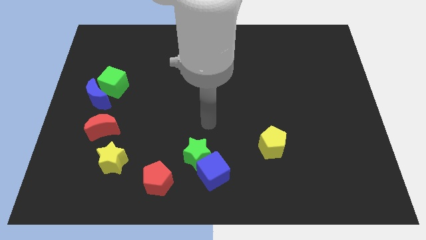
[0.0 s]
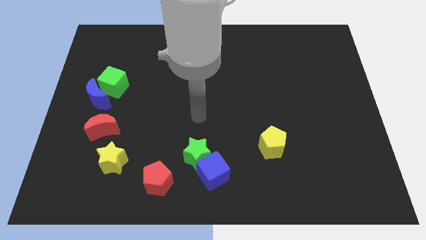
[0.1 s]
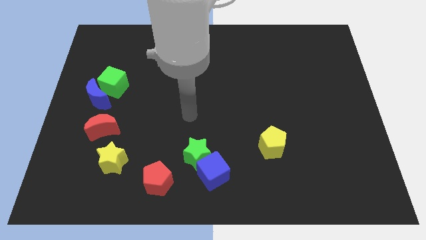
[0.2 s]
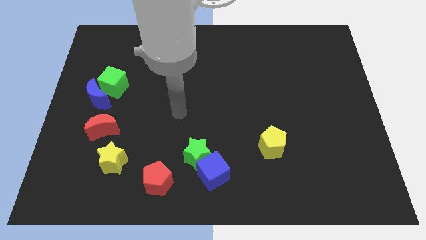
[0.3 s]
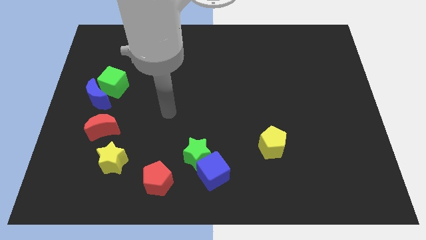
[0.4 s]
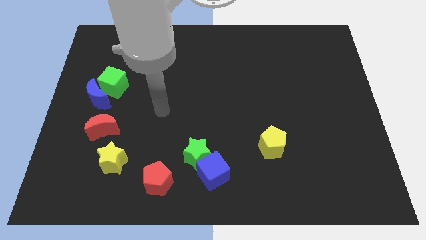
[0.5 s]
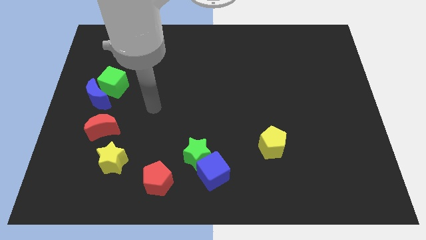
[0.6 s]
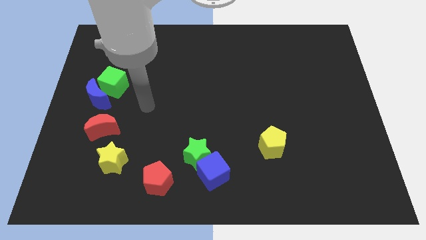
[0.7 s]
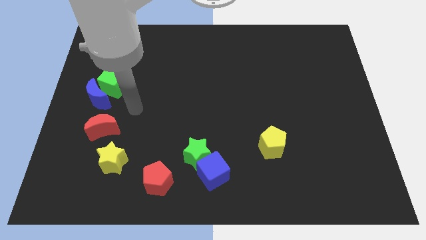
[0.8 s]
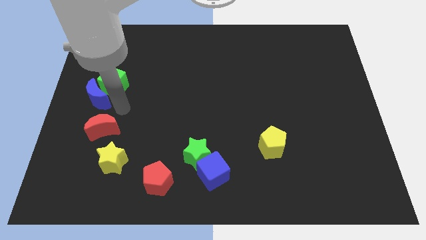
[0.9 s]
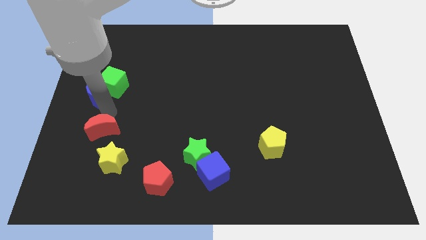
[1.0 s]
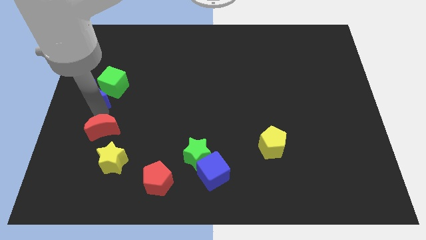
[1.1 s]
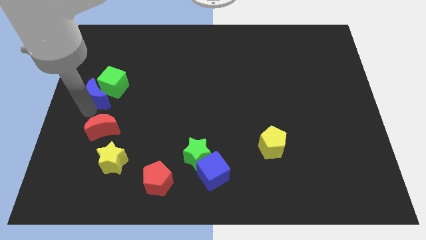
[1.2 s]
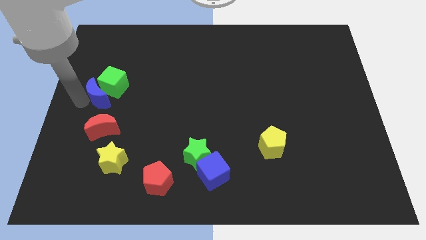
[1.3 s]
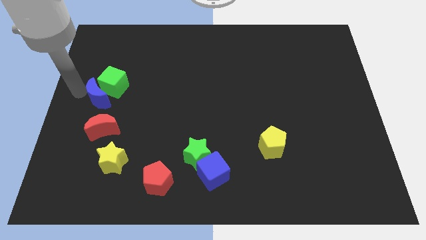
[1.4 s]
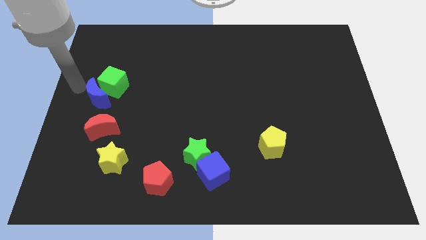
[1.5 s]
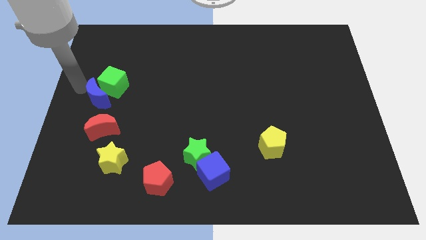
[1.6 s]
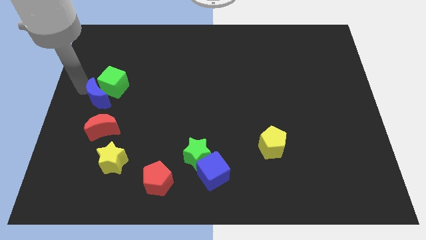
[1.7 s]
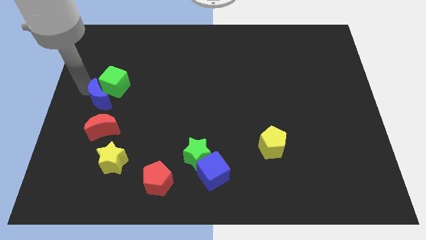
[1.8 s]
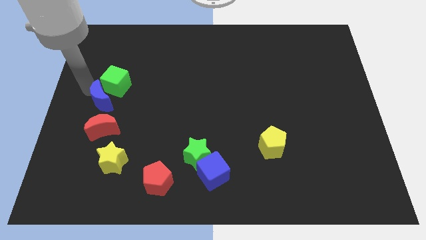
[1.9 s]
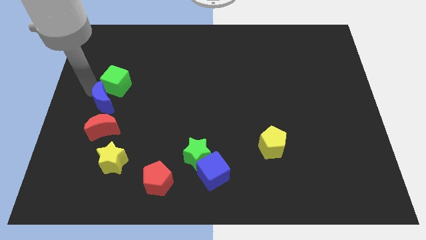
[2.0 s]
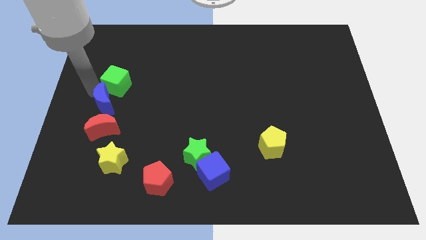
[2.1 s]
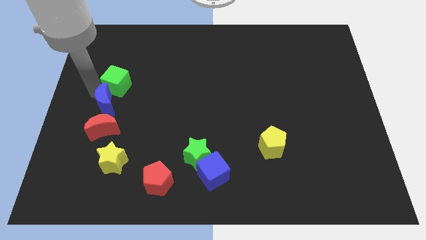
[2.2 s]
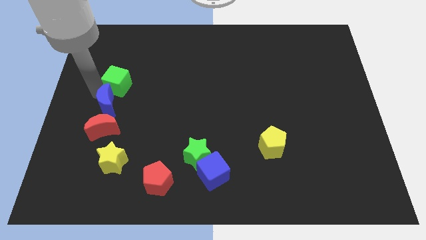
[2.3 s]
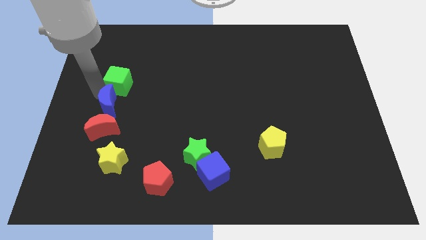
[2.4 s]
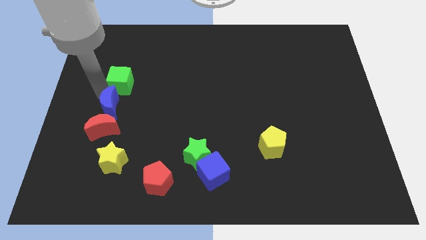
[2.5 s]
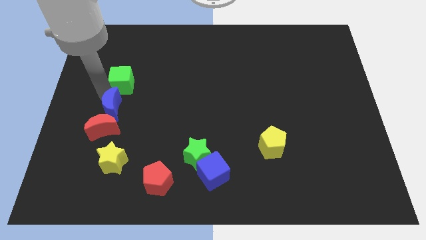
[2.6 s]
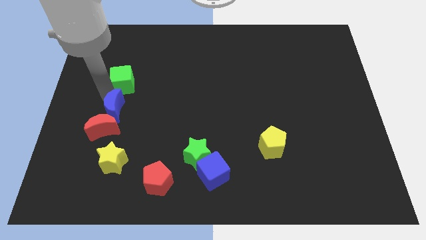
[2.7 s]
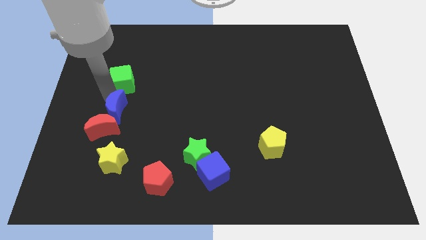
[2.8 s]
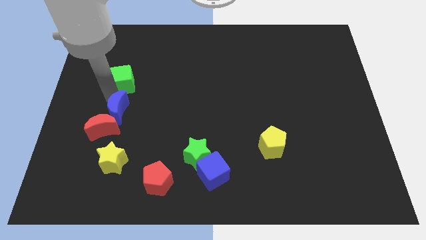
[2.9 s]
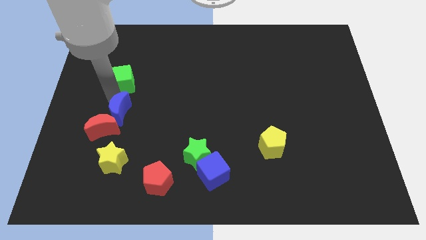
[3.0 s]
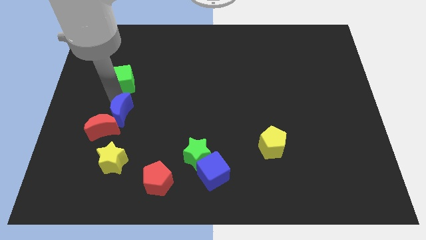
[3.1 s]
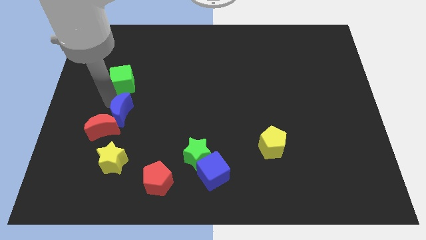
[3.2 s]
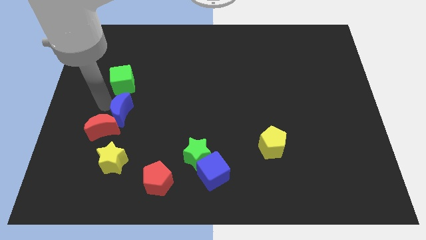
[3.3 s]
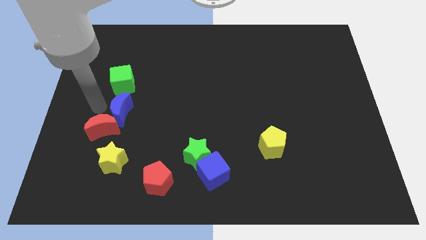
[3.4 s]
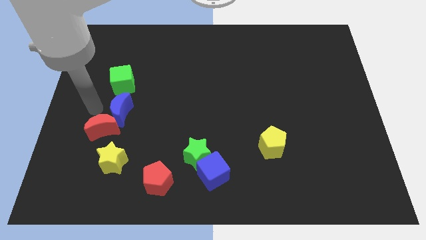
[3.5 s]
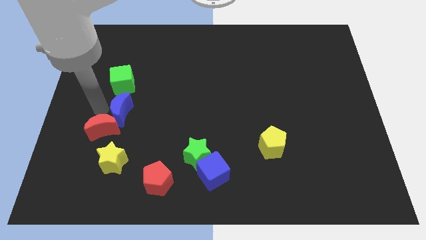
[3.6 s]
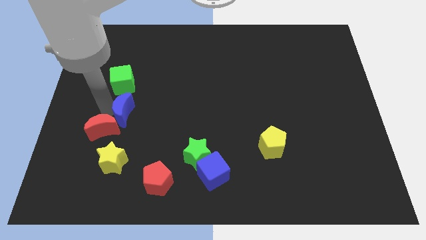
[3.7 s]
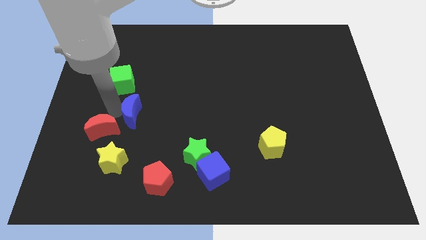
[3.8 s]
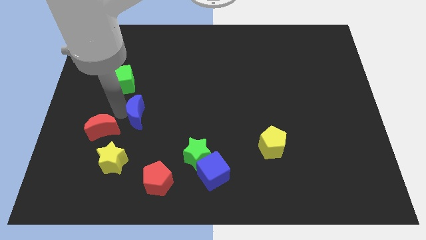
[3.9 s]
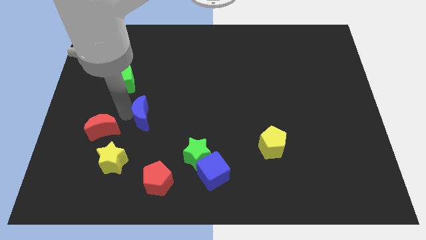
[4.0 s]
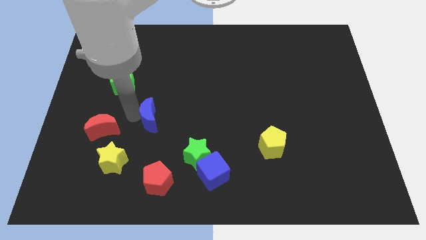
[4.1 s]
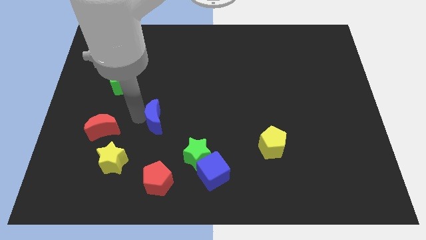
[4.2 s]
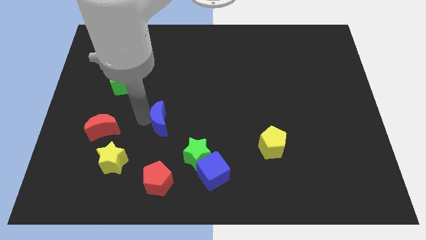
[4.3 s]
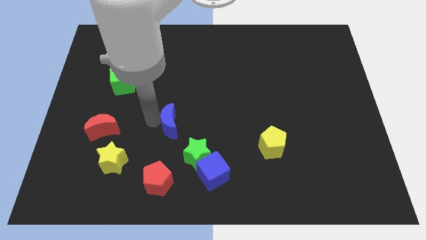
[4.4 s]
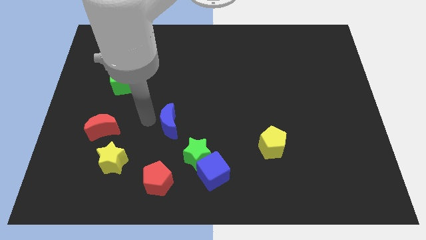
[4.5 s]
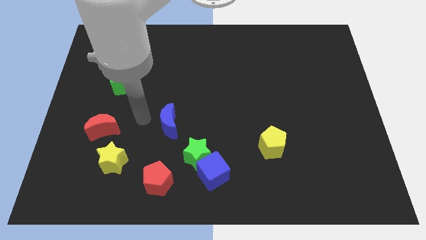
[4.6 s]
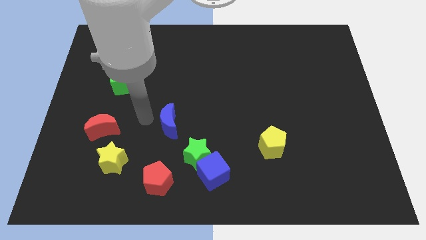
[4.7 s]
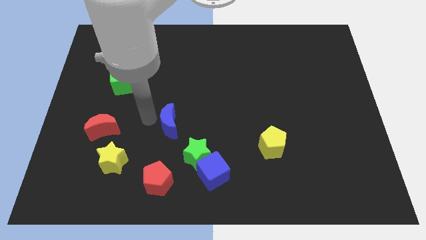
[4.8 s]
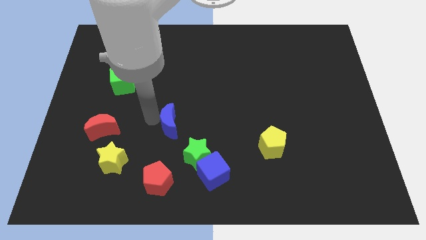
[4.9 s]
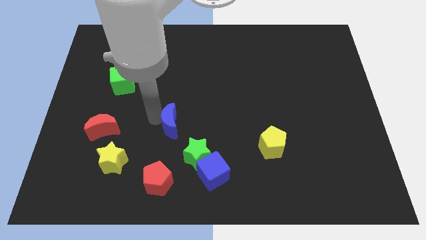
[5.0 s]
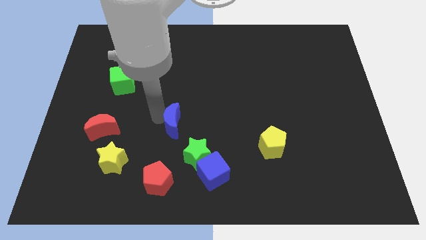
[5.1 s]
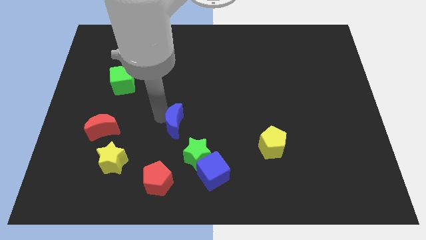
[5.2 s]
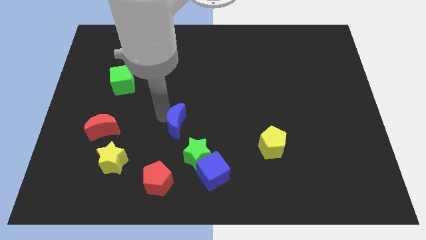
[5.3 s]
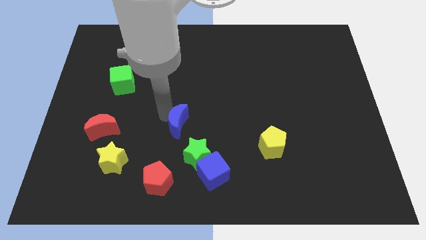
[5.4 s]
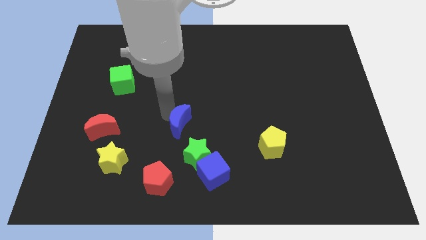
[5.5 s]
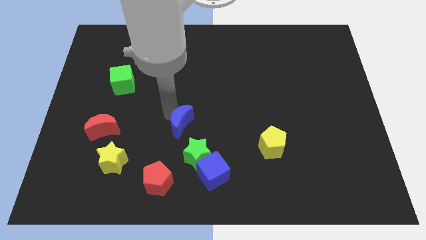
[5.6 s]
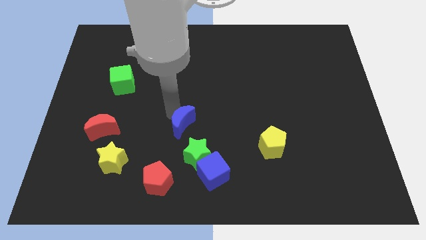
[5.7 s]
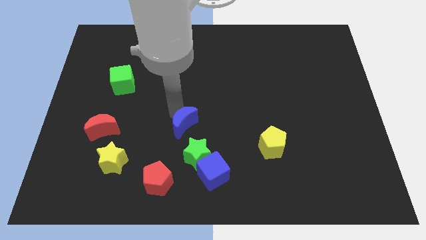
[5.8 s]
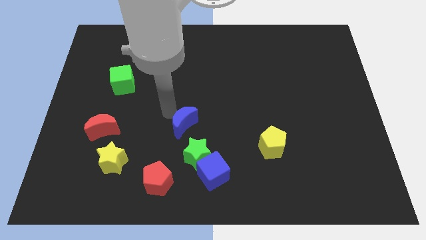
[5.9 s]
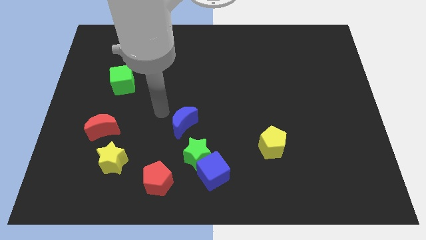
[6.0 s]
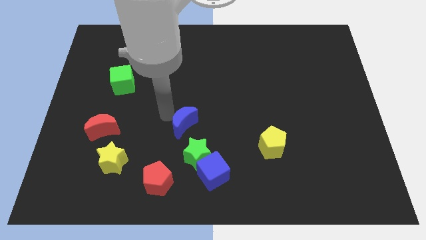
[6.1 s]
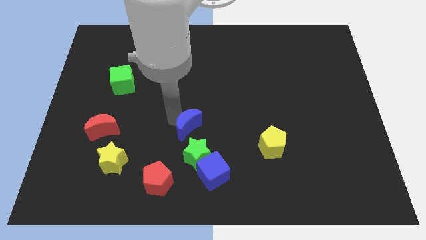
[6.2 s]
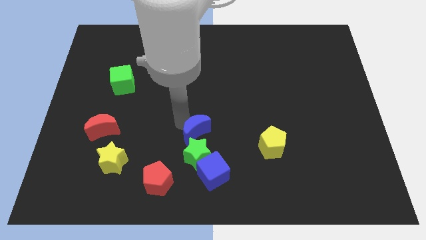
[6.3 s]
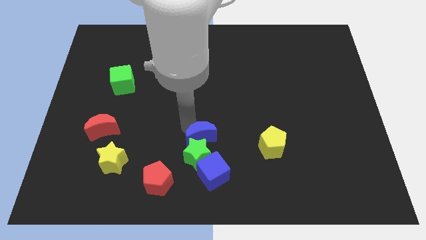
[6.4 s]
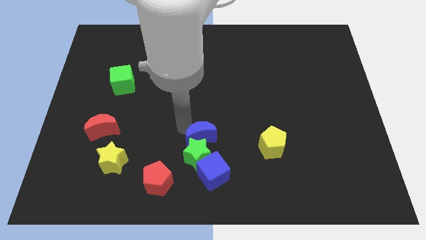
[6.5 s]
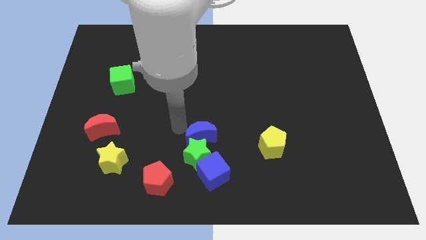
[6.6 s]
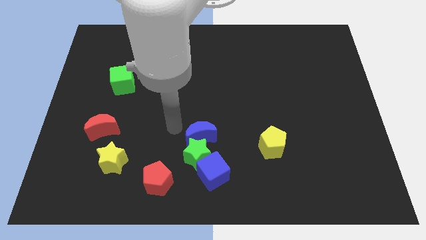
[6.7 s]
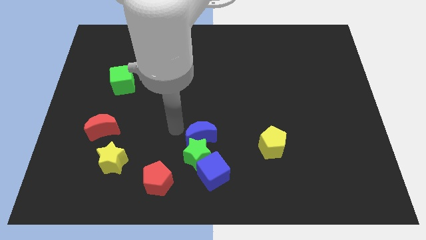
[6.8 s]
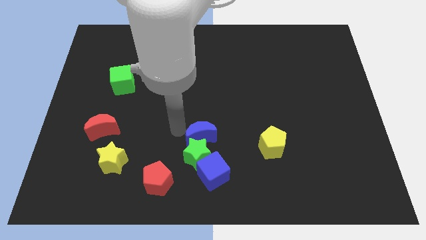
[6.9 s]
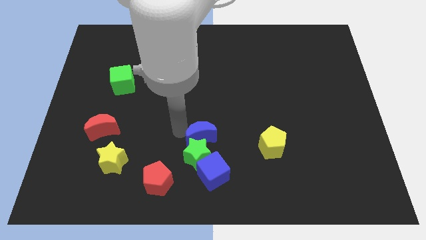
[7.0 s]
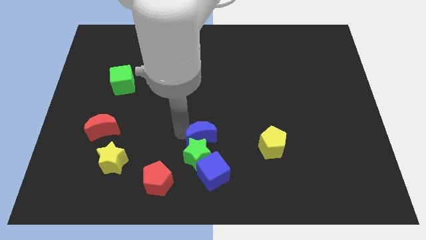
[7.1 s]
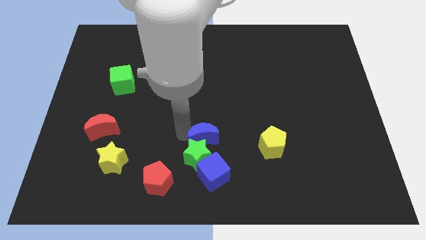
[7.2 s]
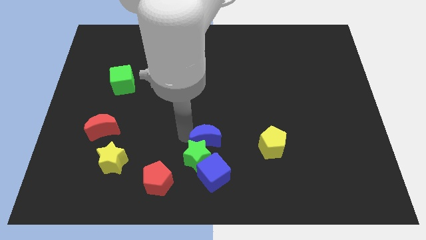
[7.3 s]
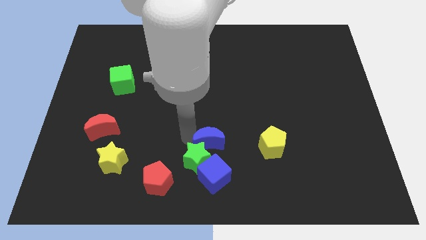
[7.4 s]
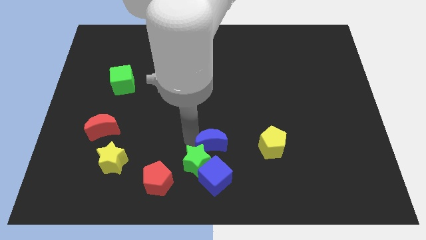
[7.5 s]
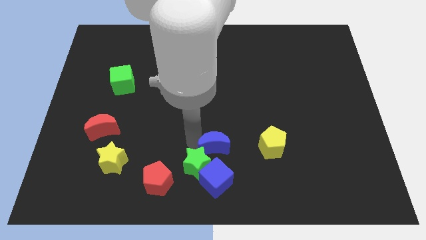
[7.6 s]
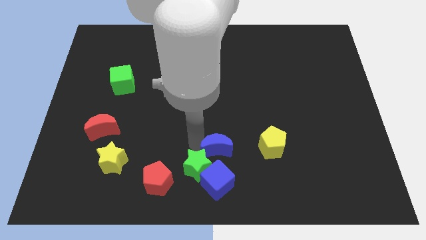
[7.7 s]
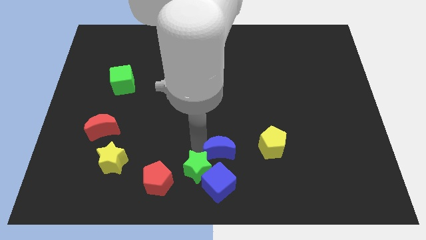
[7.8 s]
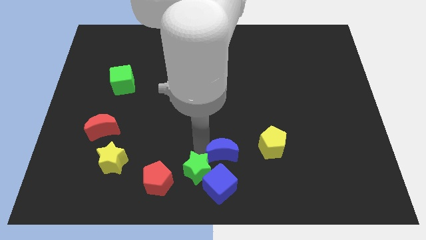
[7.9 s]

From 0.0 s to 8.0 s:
slide the blue moon diagonally up and to the right of the blue cube
